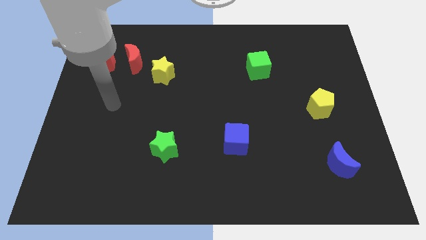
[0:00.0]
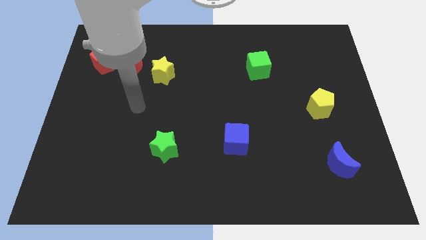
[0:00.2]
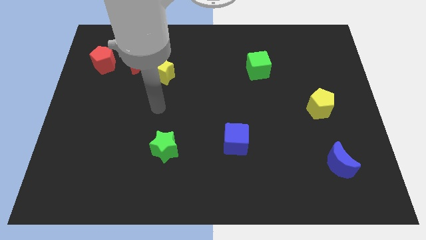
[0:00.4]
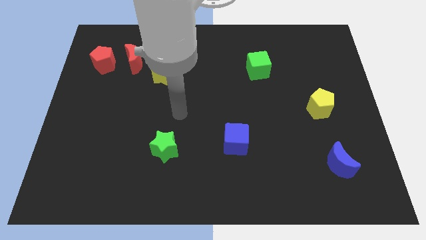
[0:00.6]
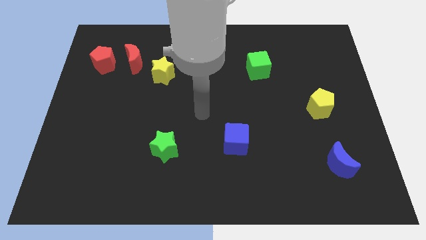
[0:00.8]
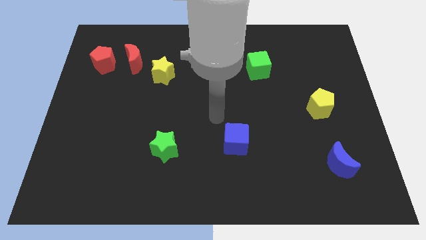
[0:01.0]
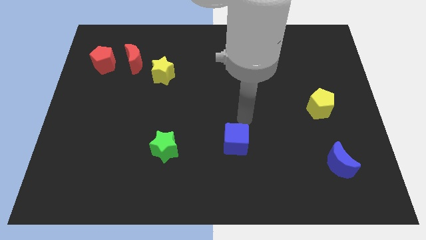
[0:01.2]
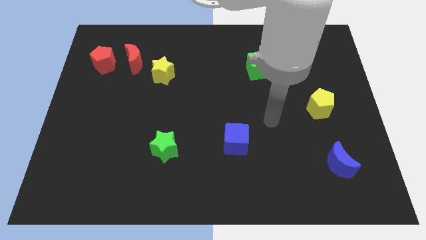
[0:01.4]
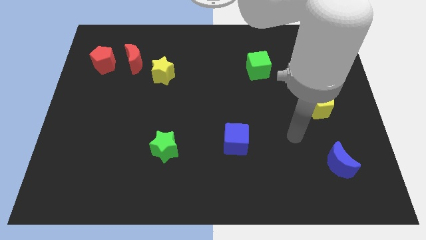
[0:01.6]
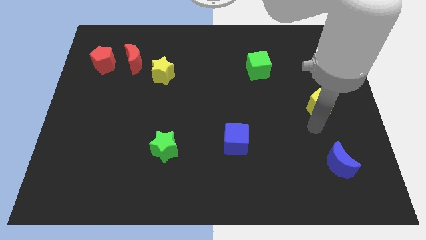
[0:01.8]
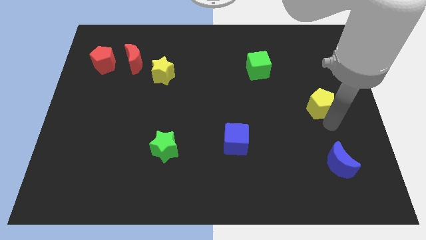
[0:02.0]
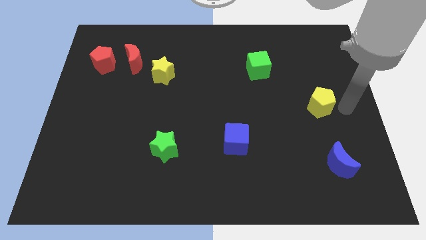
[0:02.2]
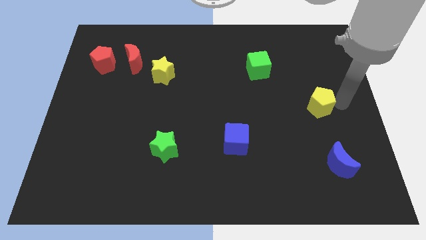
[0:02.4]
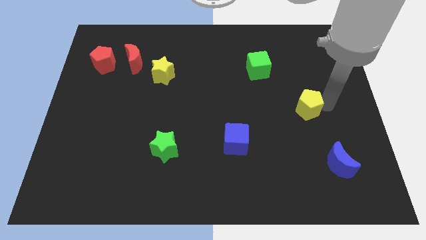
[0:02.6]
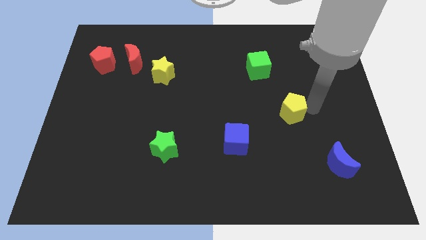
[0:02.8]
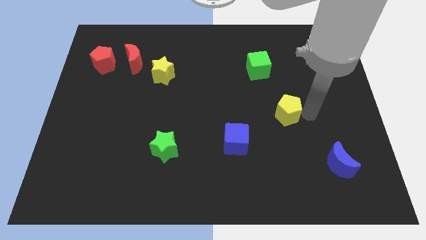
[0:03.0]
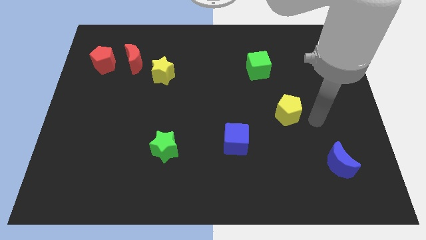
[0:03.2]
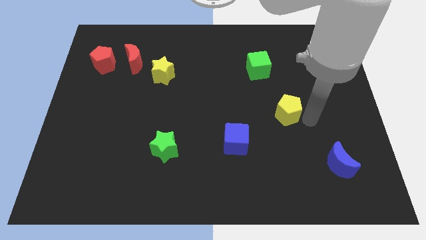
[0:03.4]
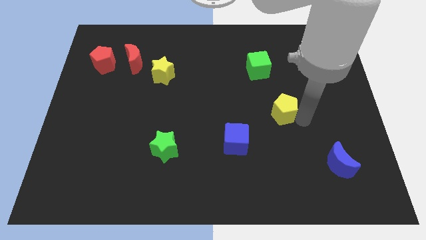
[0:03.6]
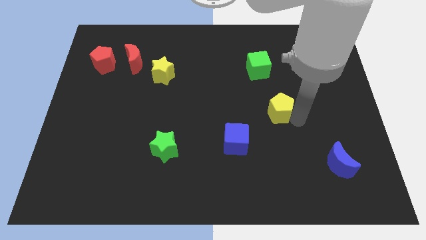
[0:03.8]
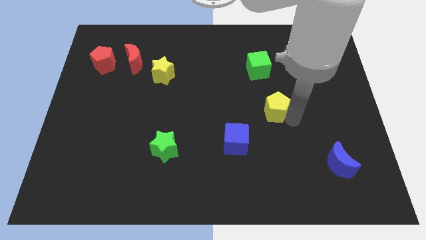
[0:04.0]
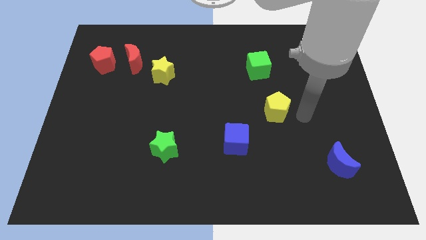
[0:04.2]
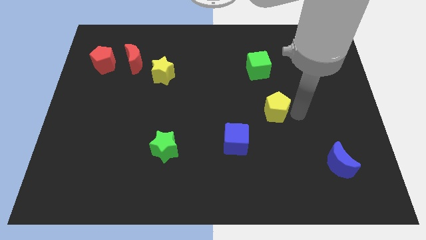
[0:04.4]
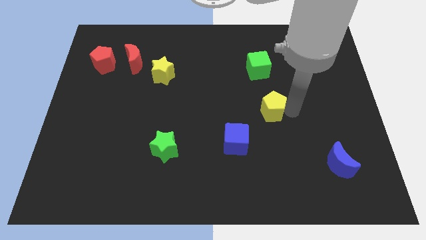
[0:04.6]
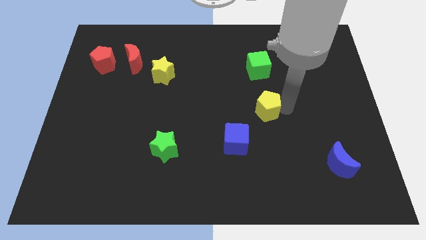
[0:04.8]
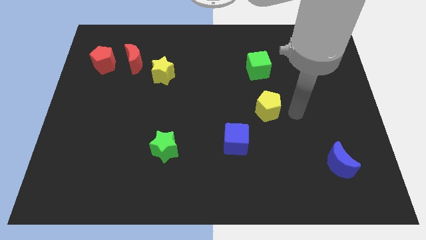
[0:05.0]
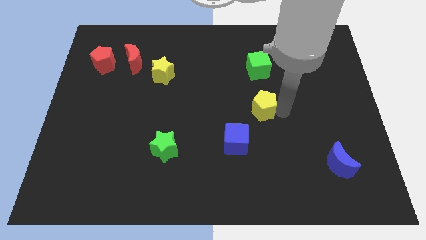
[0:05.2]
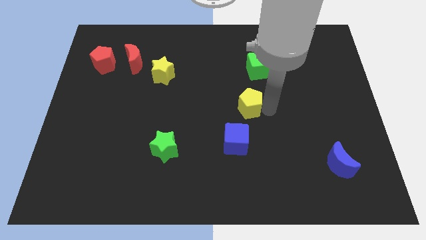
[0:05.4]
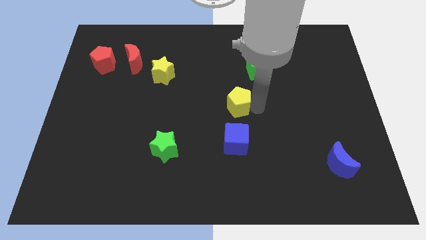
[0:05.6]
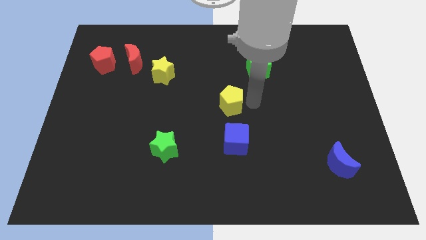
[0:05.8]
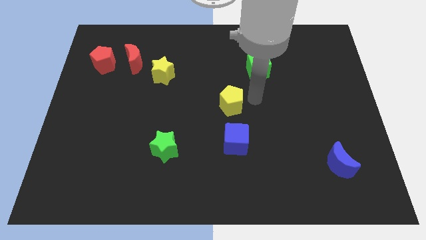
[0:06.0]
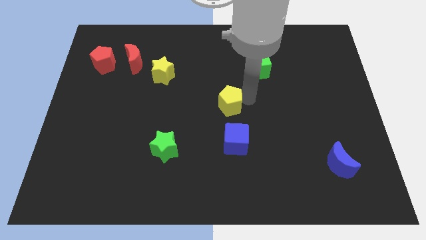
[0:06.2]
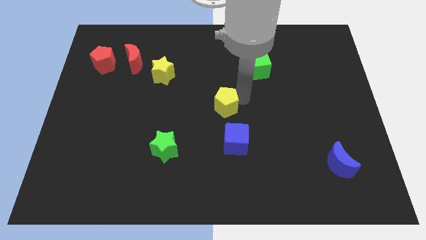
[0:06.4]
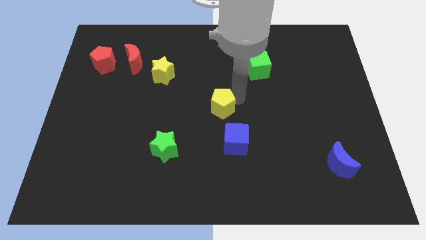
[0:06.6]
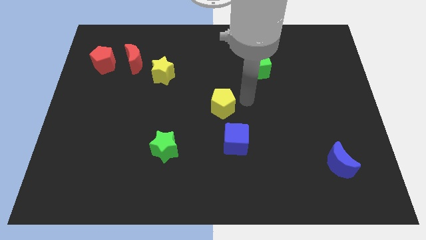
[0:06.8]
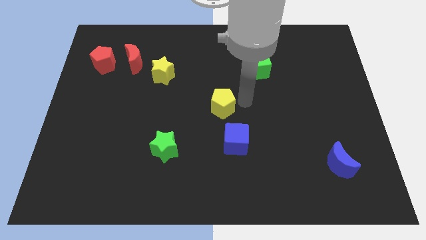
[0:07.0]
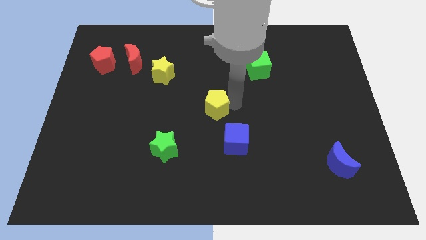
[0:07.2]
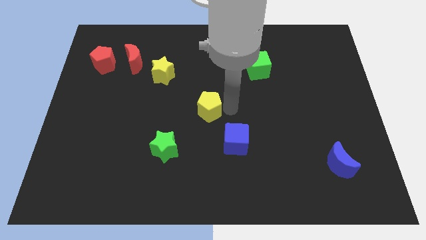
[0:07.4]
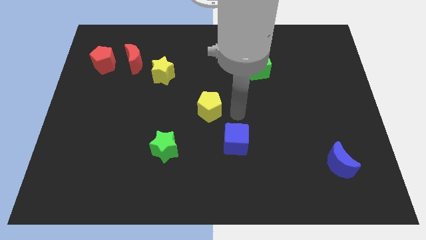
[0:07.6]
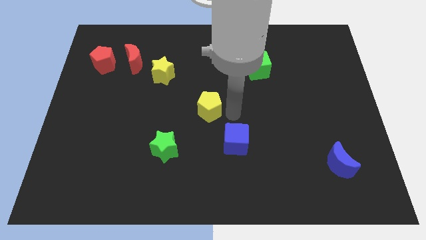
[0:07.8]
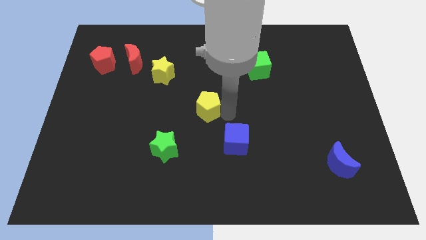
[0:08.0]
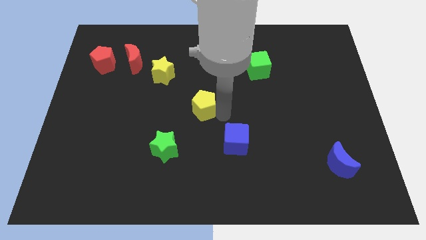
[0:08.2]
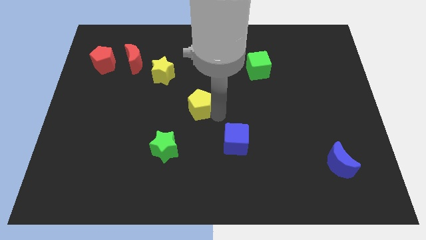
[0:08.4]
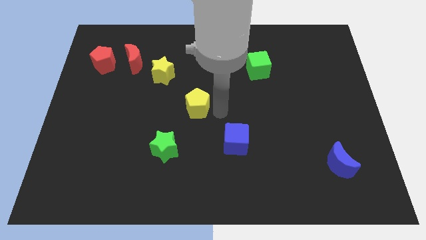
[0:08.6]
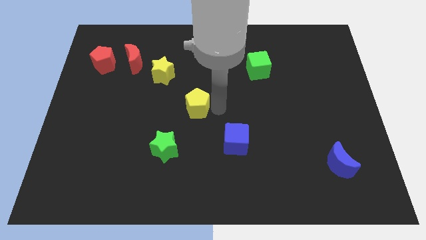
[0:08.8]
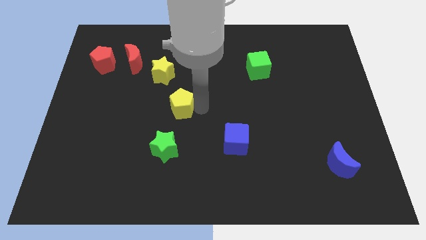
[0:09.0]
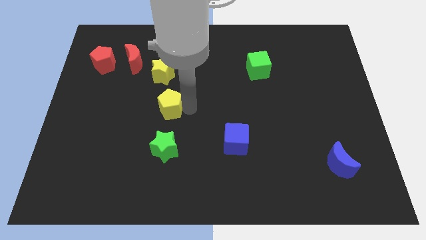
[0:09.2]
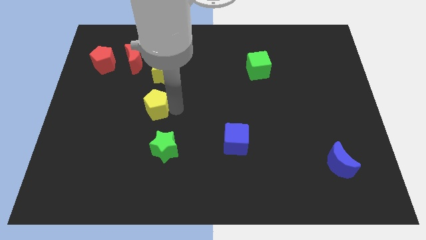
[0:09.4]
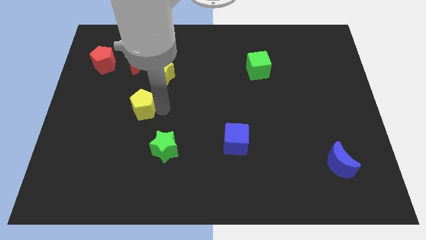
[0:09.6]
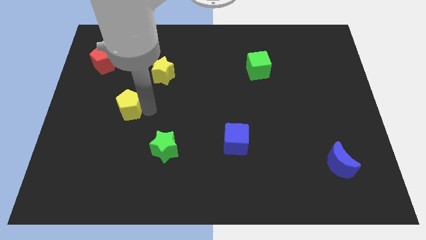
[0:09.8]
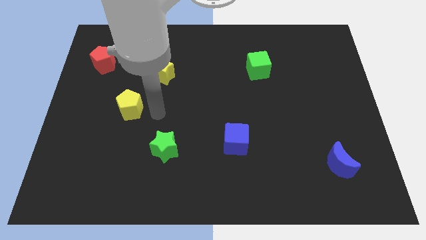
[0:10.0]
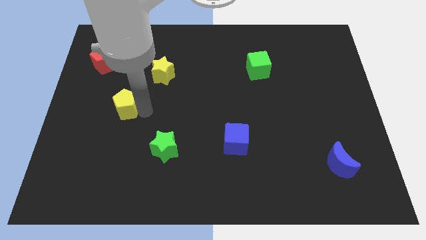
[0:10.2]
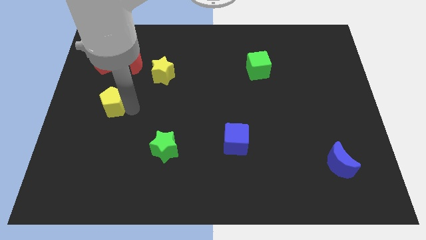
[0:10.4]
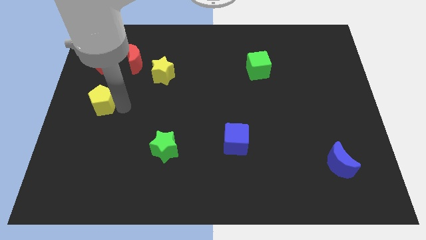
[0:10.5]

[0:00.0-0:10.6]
put the yellow pentagon to the center left
